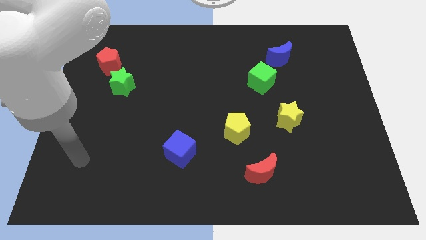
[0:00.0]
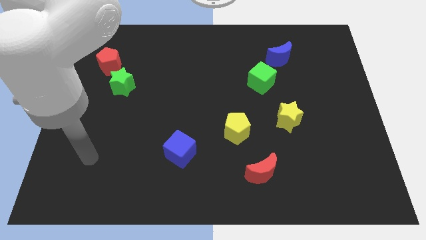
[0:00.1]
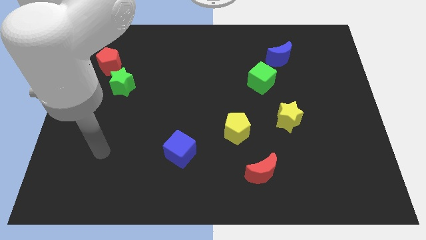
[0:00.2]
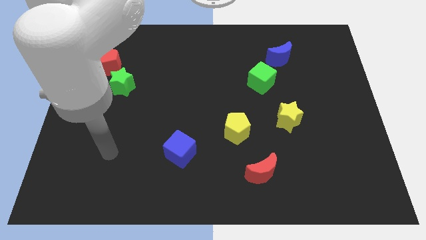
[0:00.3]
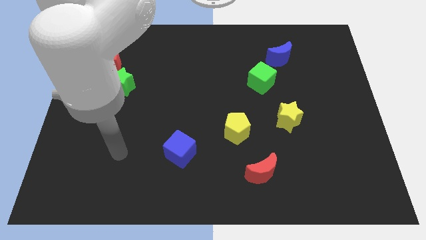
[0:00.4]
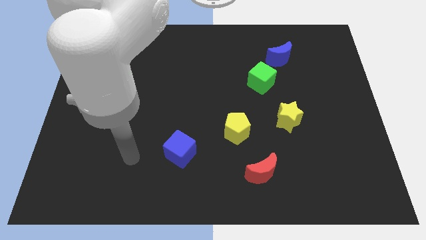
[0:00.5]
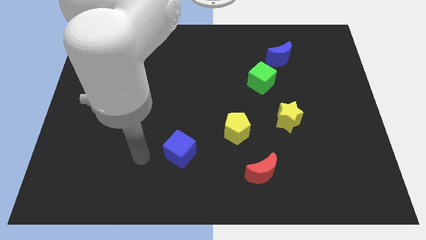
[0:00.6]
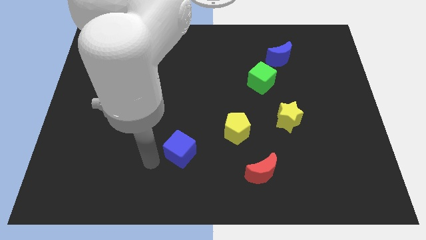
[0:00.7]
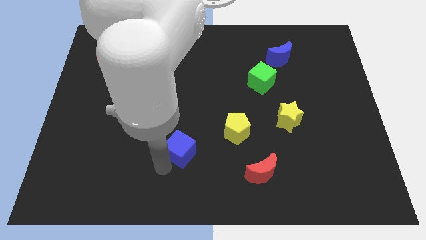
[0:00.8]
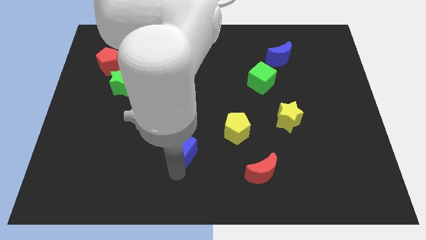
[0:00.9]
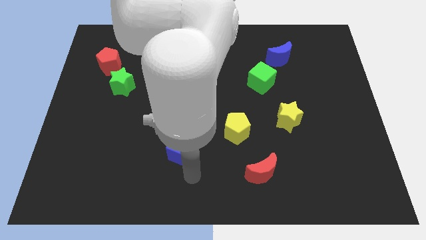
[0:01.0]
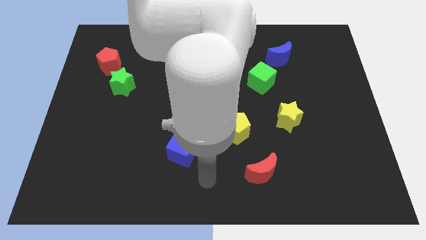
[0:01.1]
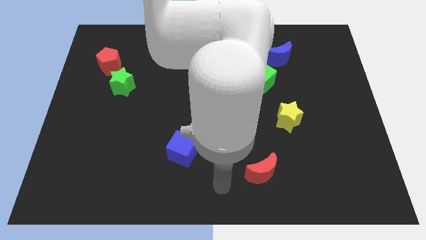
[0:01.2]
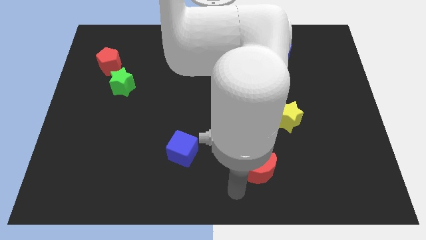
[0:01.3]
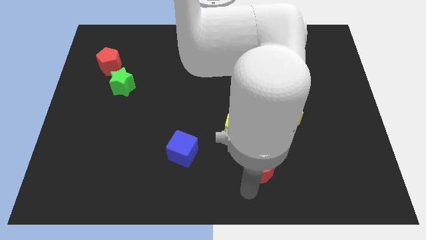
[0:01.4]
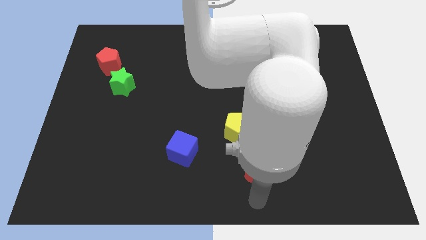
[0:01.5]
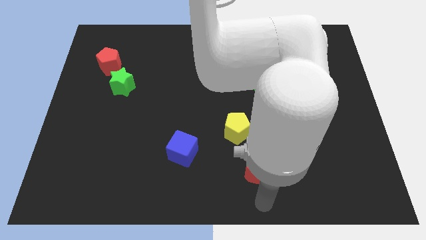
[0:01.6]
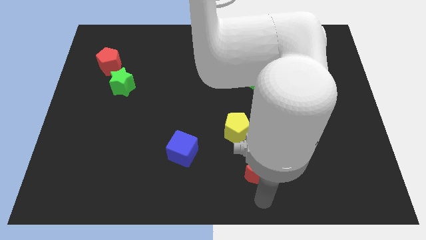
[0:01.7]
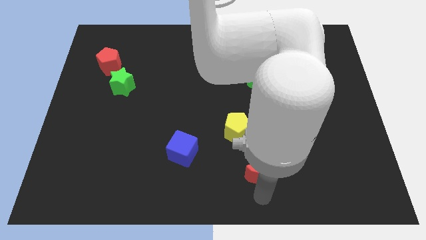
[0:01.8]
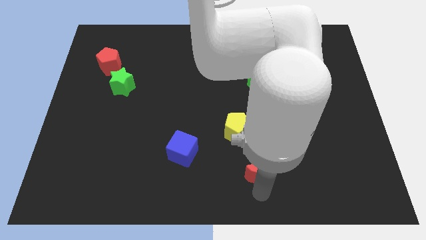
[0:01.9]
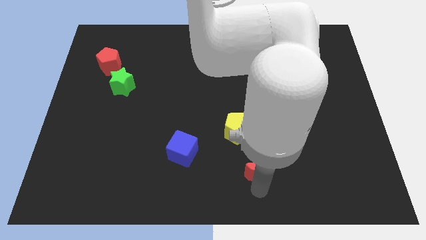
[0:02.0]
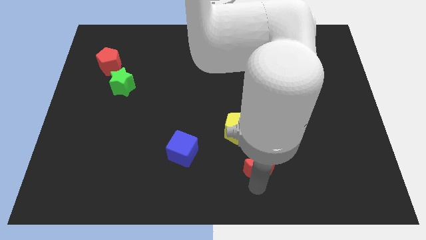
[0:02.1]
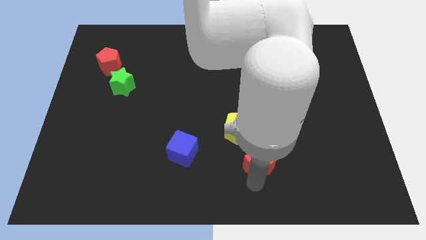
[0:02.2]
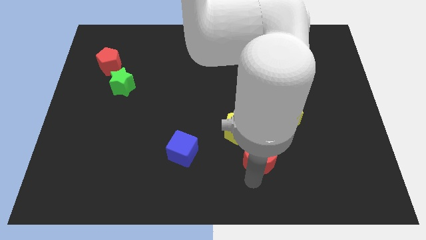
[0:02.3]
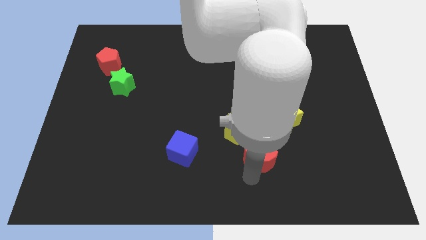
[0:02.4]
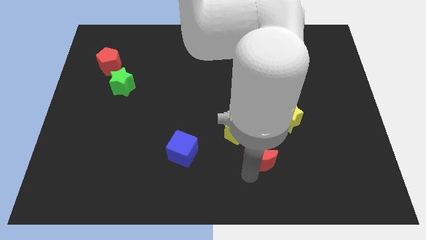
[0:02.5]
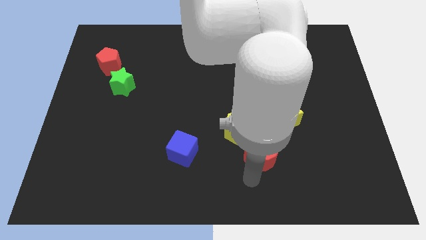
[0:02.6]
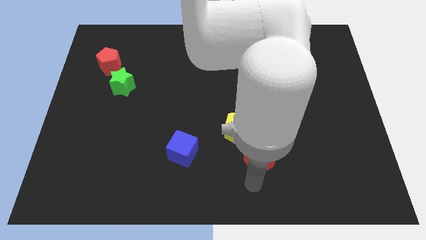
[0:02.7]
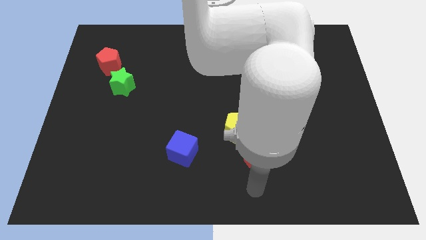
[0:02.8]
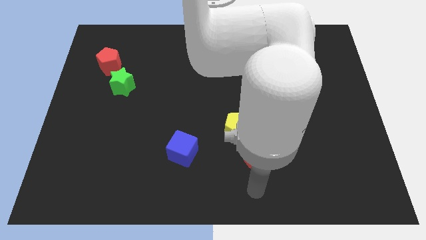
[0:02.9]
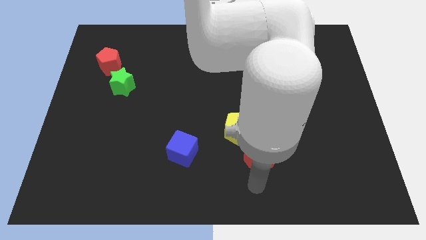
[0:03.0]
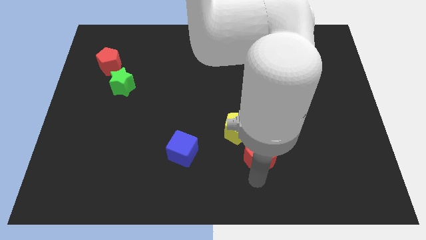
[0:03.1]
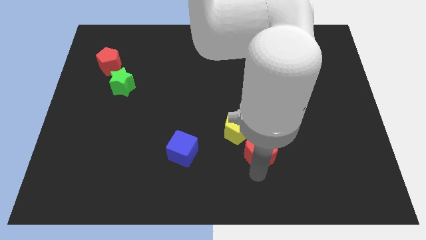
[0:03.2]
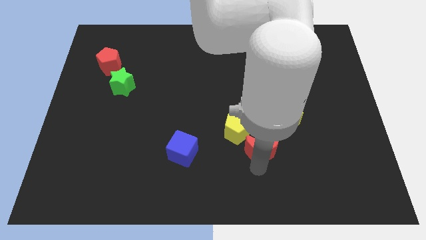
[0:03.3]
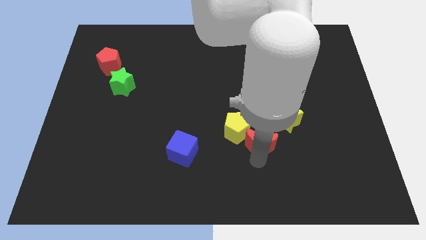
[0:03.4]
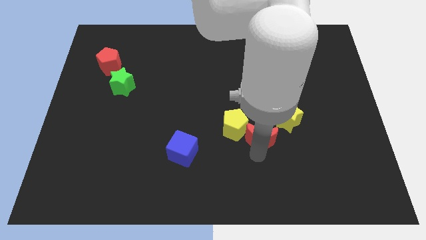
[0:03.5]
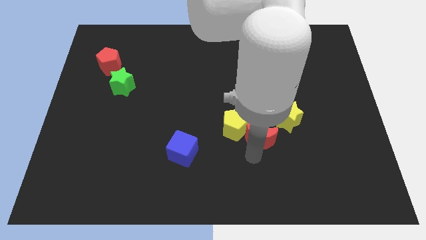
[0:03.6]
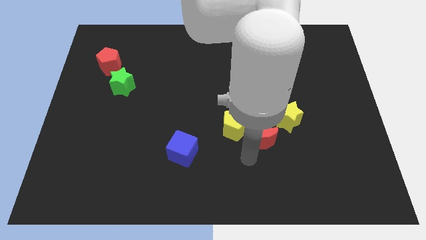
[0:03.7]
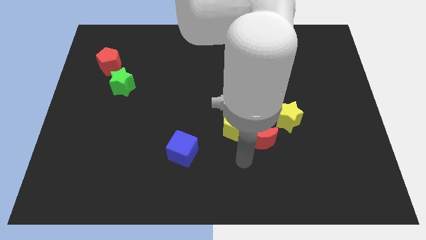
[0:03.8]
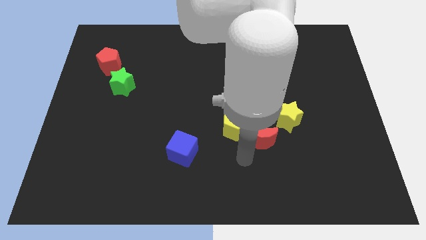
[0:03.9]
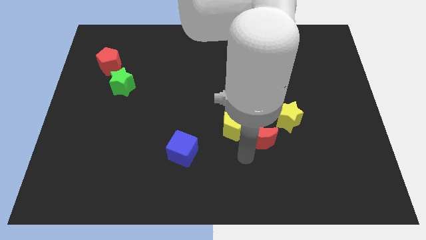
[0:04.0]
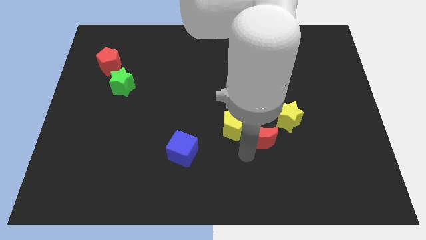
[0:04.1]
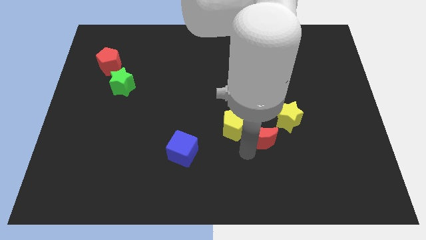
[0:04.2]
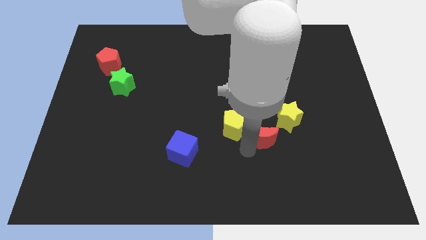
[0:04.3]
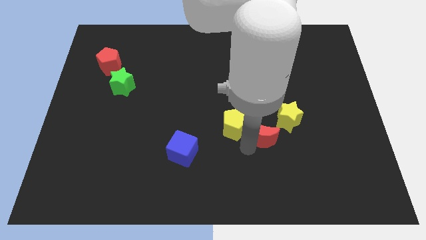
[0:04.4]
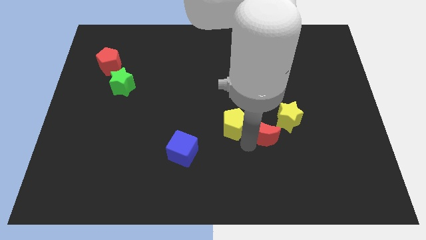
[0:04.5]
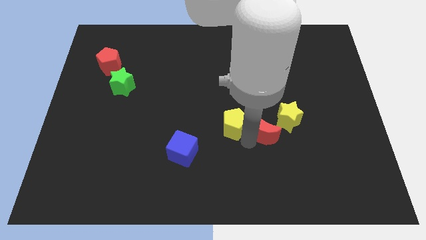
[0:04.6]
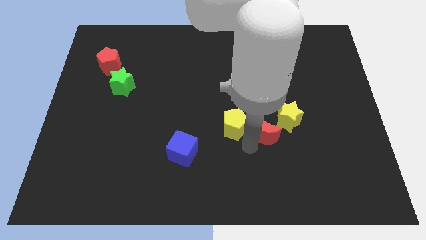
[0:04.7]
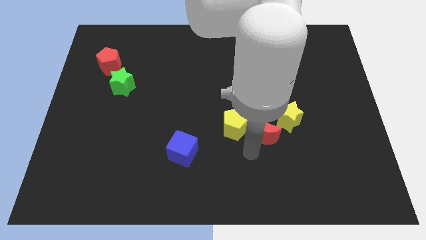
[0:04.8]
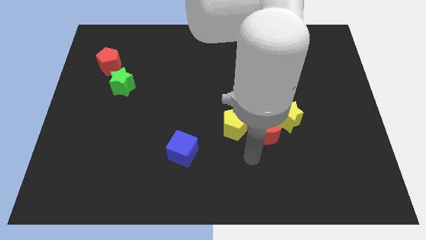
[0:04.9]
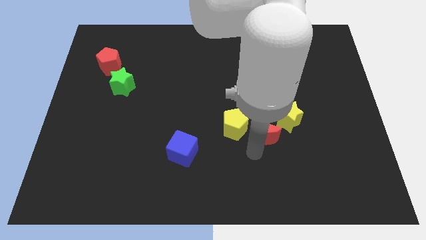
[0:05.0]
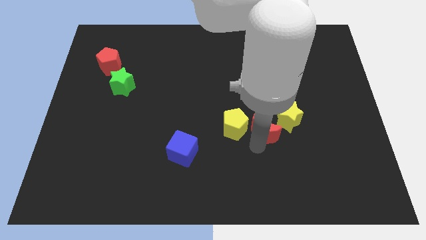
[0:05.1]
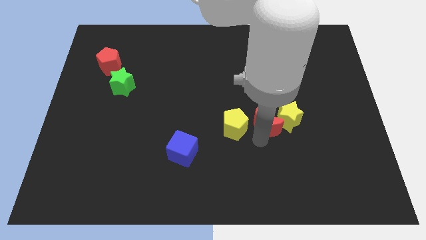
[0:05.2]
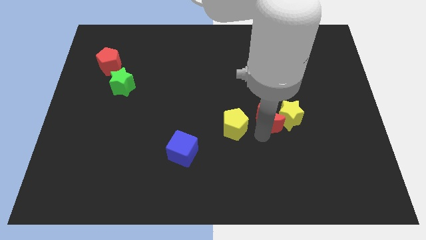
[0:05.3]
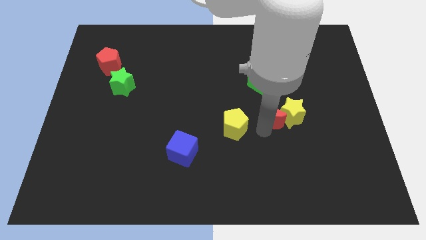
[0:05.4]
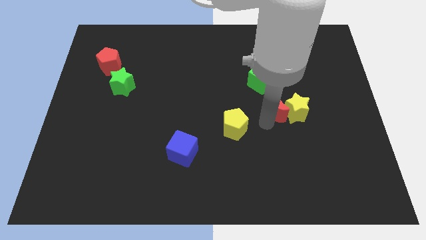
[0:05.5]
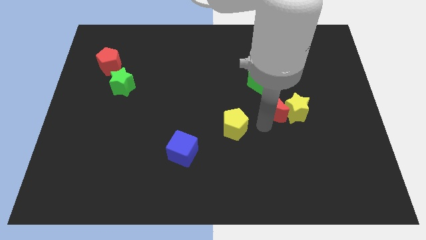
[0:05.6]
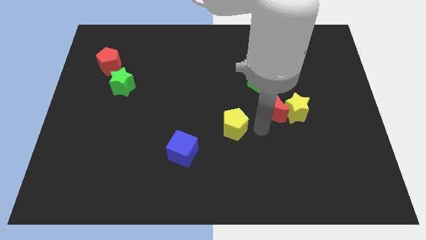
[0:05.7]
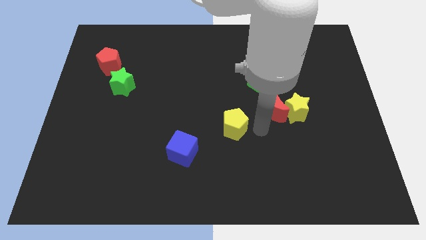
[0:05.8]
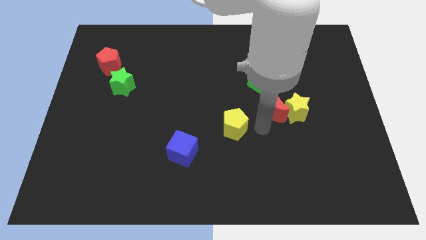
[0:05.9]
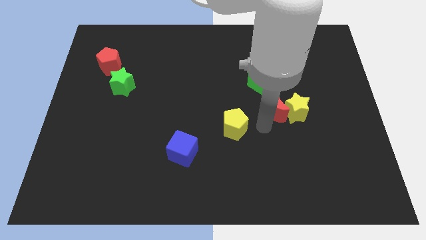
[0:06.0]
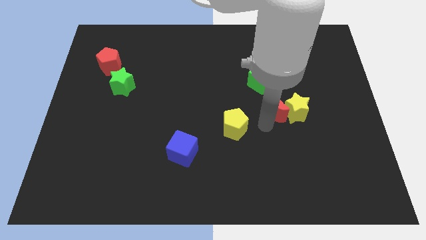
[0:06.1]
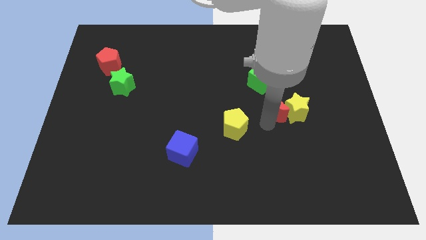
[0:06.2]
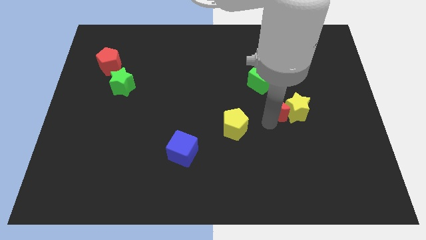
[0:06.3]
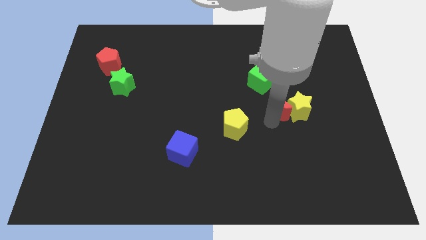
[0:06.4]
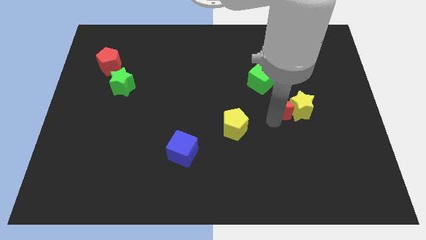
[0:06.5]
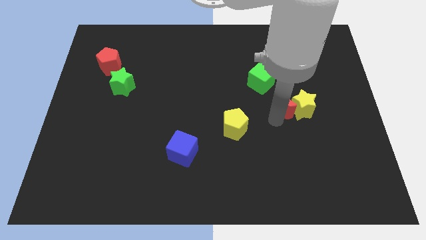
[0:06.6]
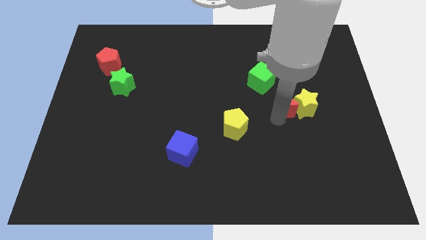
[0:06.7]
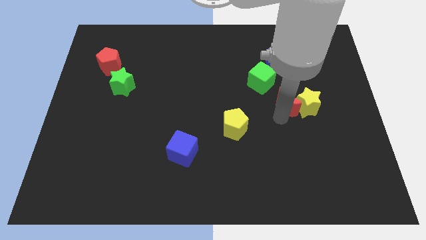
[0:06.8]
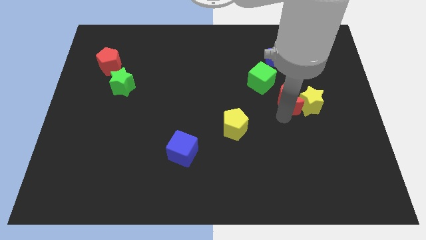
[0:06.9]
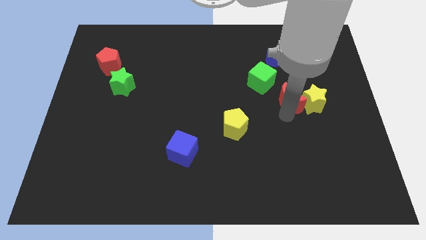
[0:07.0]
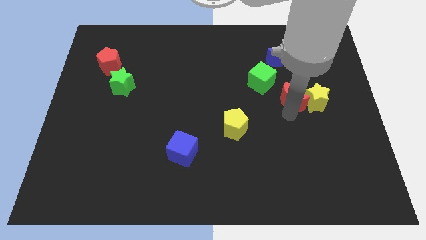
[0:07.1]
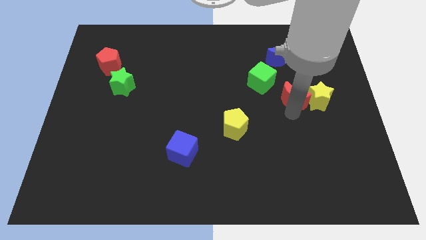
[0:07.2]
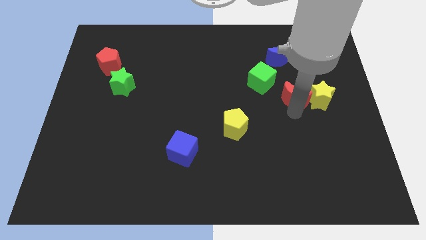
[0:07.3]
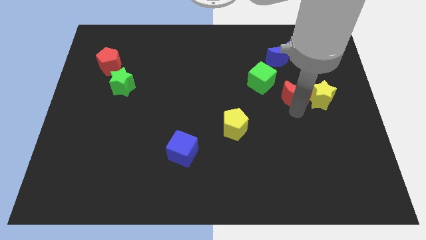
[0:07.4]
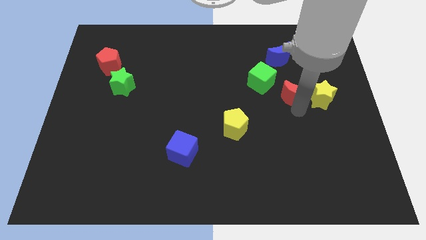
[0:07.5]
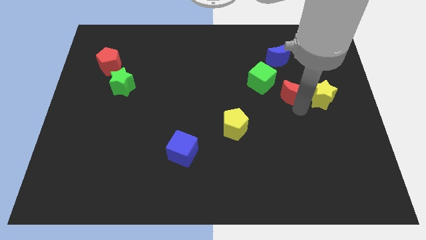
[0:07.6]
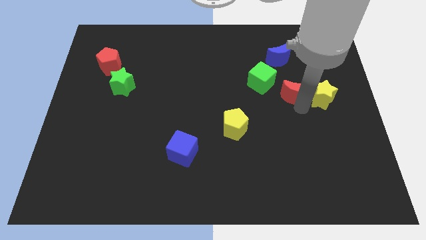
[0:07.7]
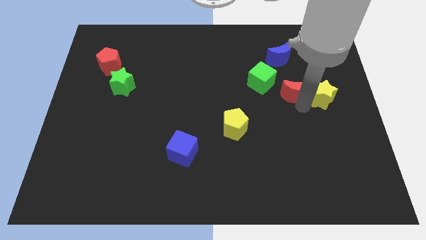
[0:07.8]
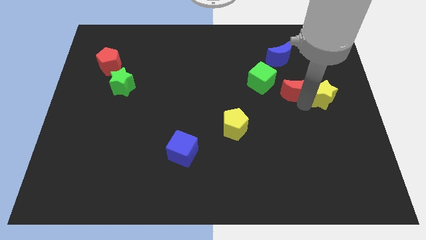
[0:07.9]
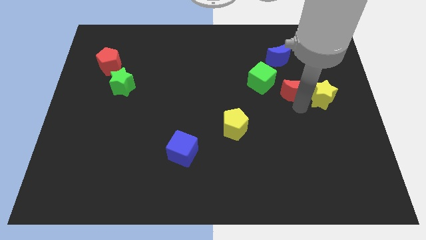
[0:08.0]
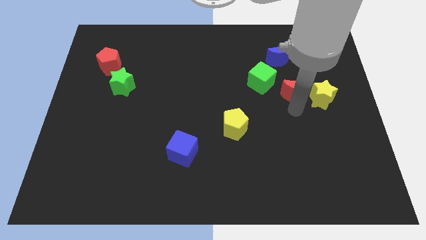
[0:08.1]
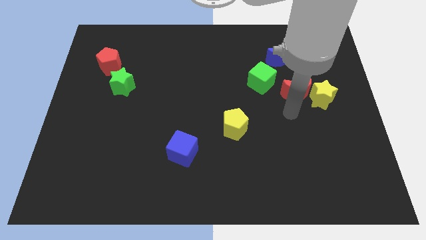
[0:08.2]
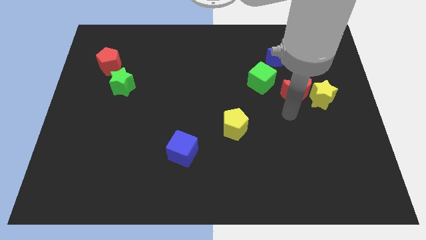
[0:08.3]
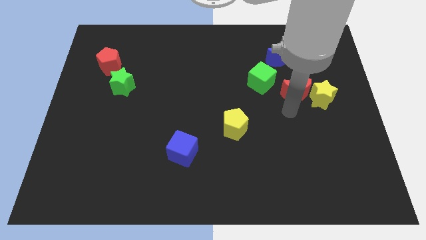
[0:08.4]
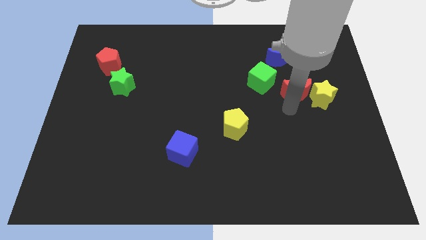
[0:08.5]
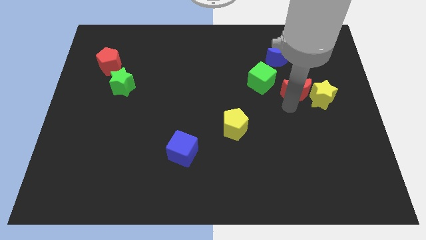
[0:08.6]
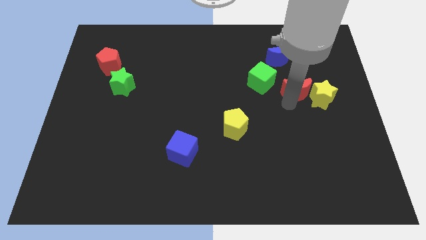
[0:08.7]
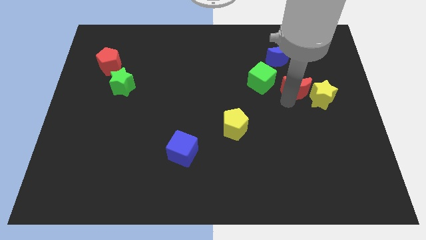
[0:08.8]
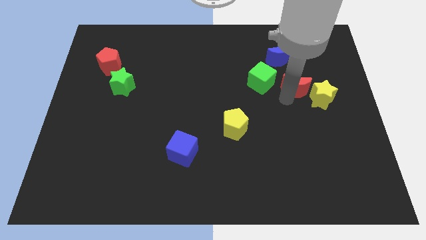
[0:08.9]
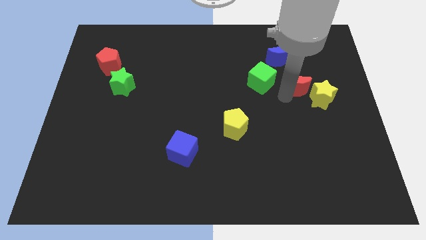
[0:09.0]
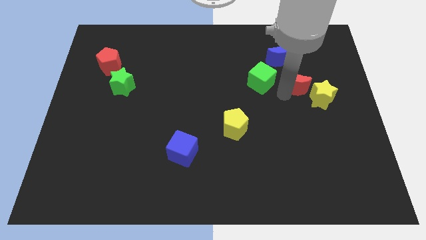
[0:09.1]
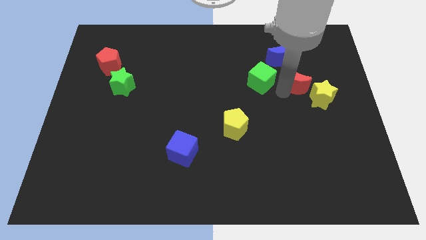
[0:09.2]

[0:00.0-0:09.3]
slide the red moon to the bottom right of the blue moon
